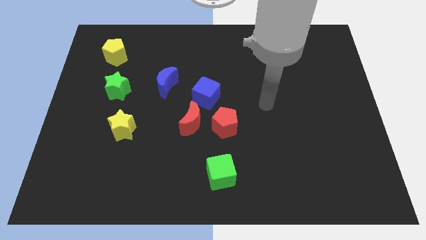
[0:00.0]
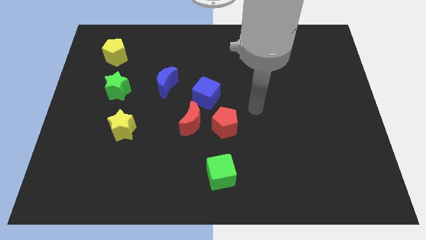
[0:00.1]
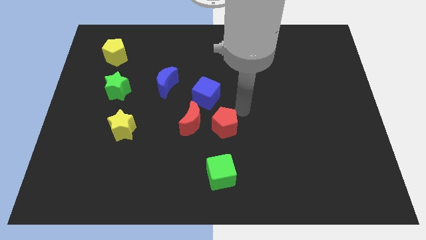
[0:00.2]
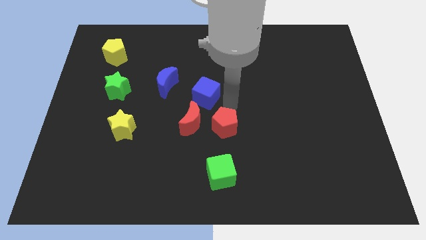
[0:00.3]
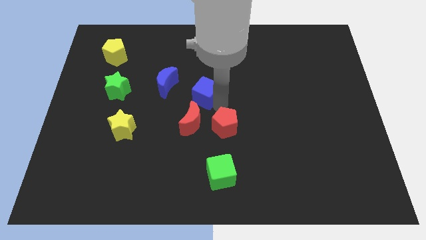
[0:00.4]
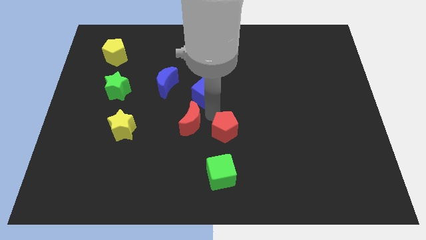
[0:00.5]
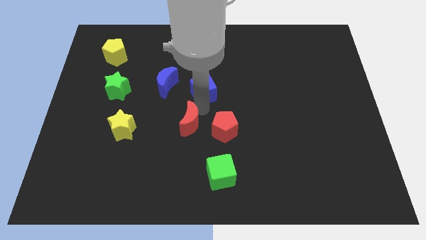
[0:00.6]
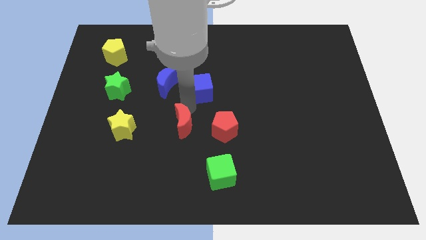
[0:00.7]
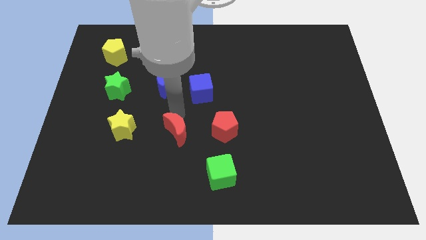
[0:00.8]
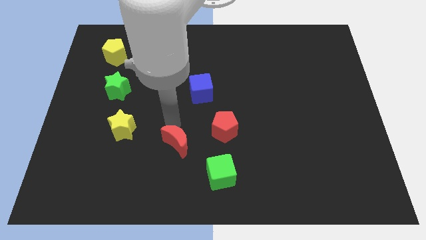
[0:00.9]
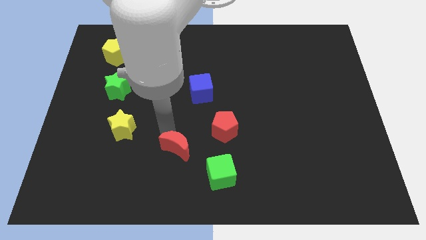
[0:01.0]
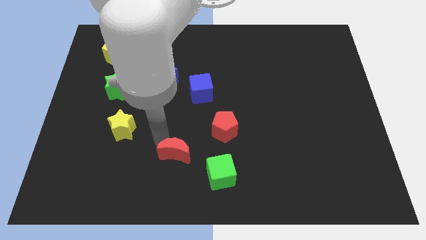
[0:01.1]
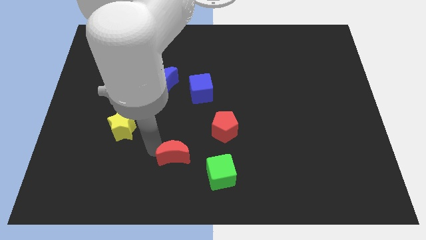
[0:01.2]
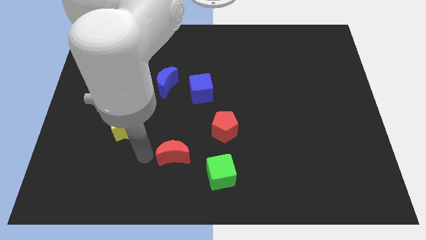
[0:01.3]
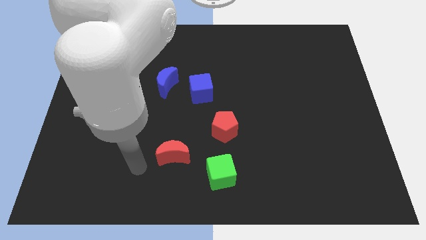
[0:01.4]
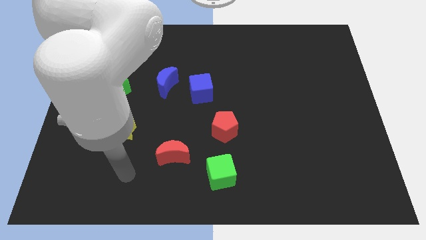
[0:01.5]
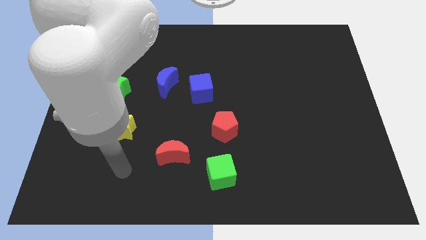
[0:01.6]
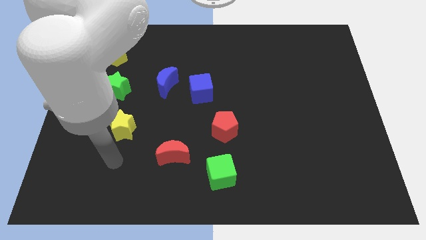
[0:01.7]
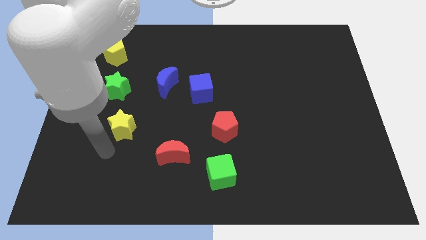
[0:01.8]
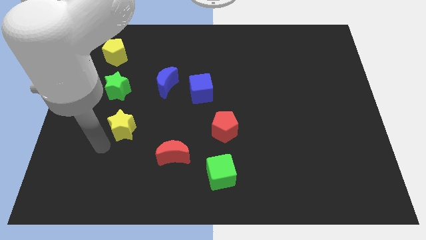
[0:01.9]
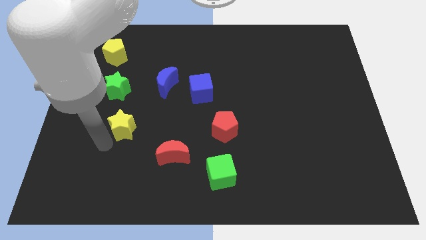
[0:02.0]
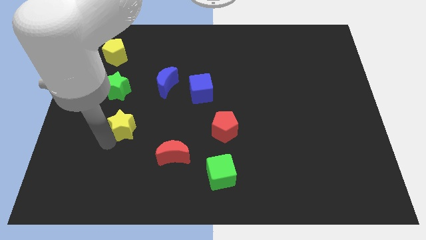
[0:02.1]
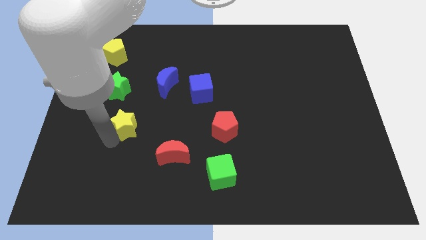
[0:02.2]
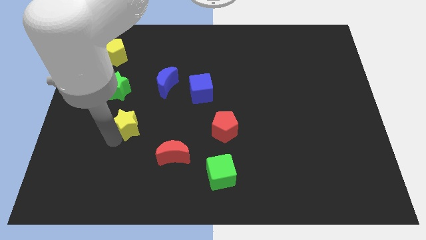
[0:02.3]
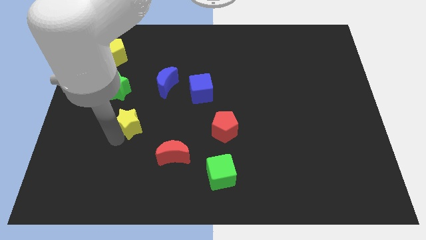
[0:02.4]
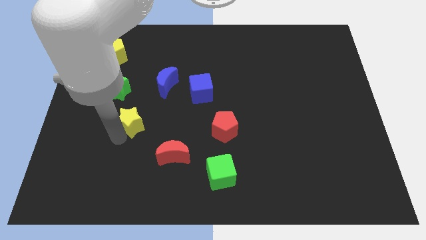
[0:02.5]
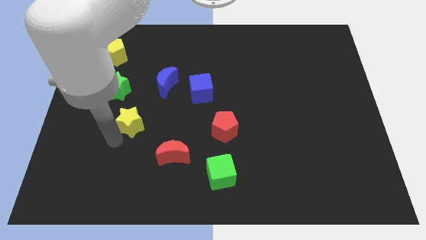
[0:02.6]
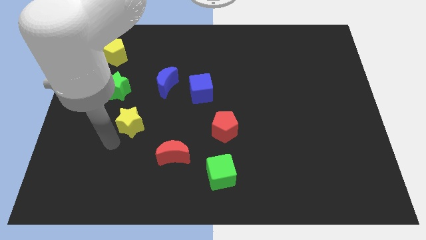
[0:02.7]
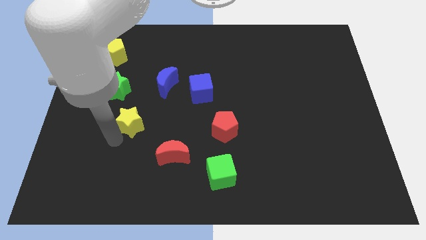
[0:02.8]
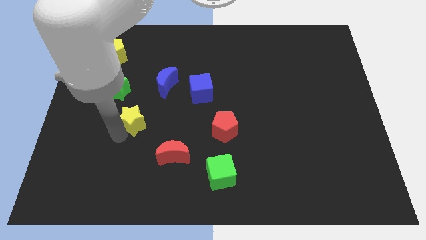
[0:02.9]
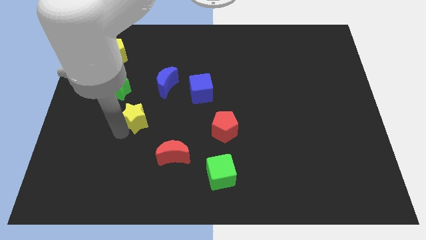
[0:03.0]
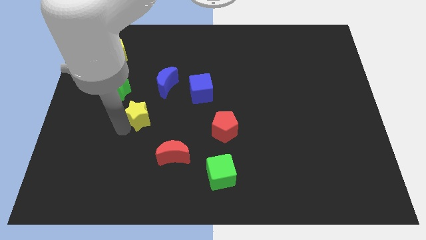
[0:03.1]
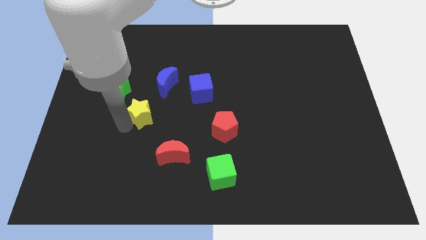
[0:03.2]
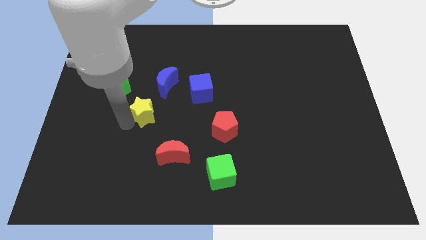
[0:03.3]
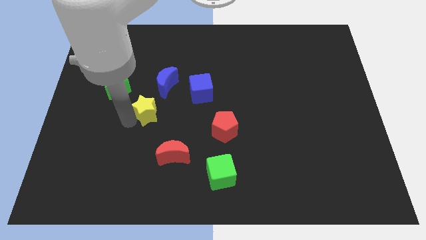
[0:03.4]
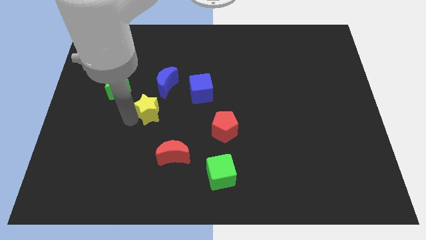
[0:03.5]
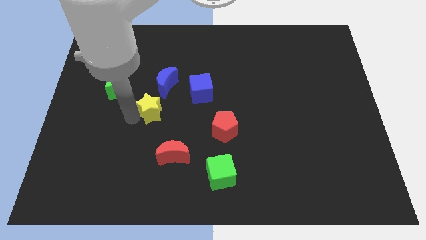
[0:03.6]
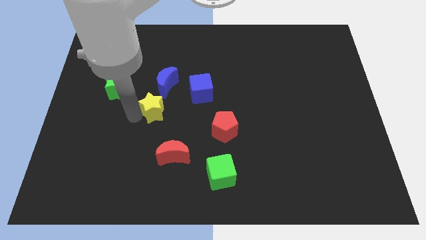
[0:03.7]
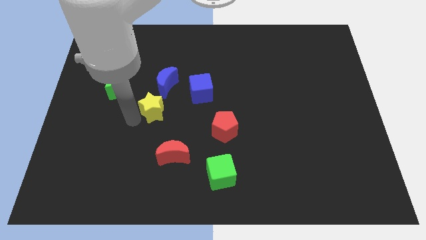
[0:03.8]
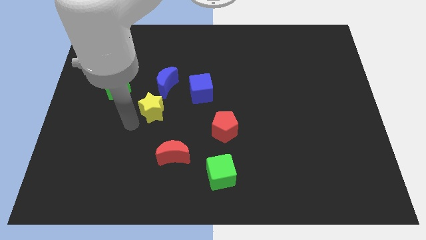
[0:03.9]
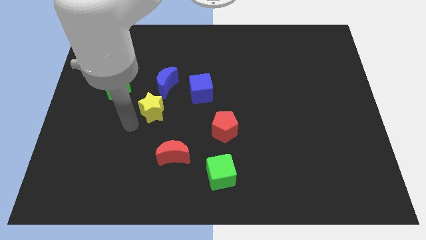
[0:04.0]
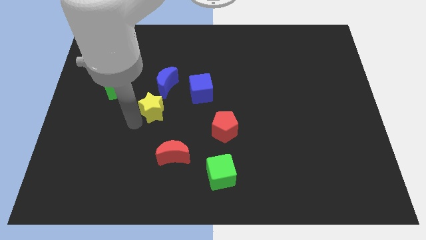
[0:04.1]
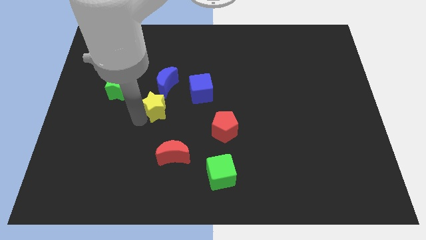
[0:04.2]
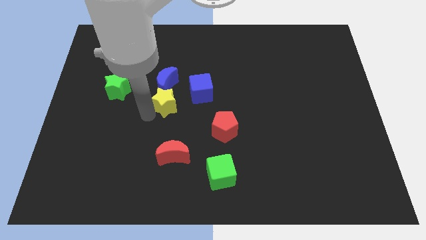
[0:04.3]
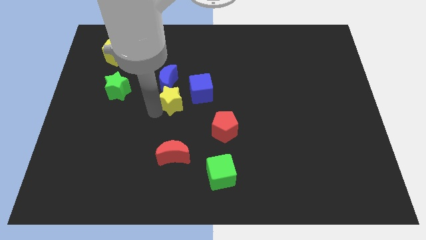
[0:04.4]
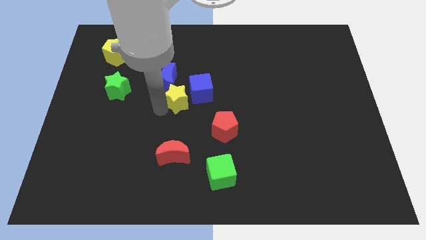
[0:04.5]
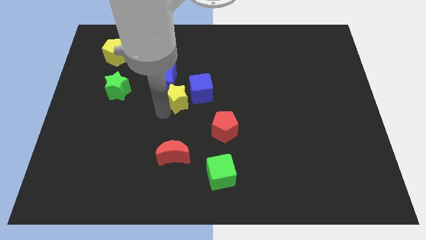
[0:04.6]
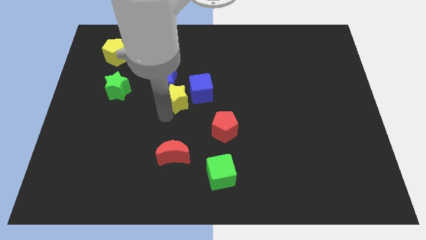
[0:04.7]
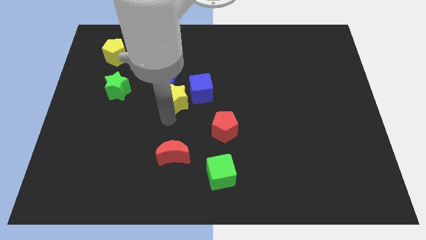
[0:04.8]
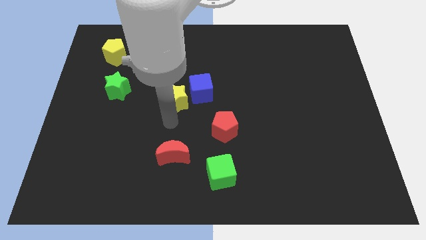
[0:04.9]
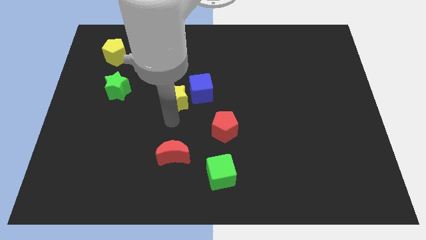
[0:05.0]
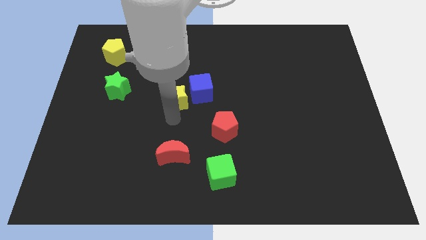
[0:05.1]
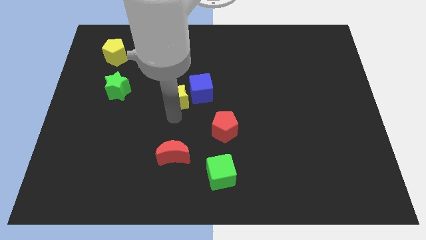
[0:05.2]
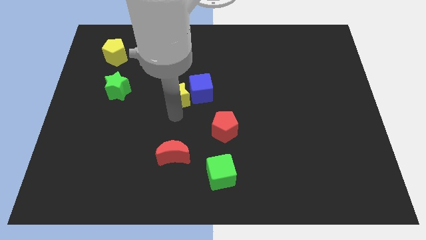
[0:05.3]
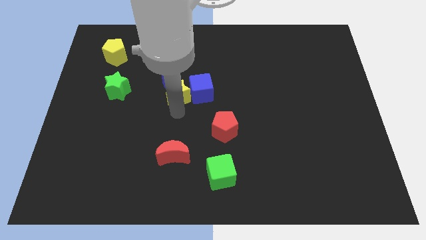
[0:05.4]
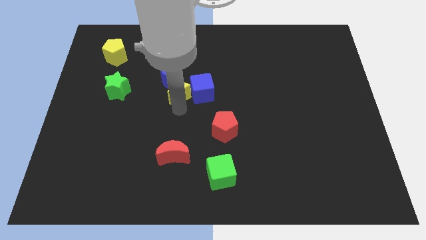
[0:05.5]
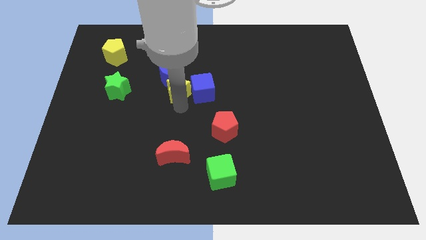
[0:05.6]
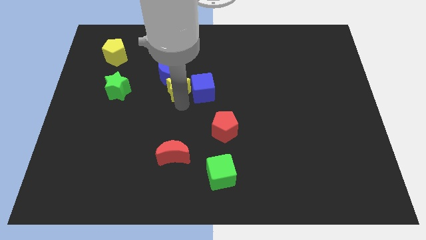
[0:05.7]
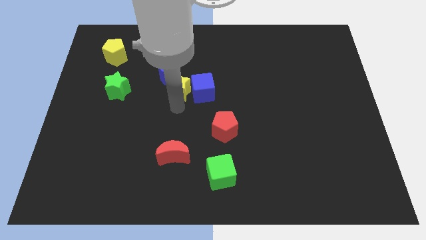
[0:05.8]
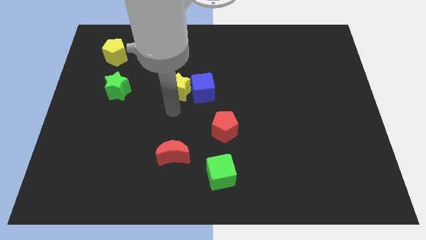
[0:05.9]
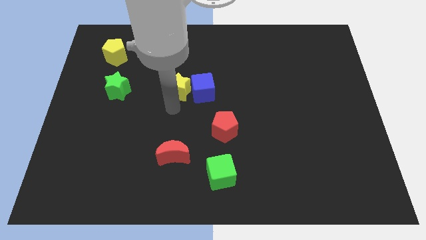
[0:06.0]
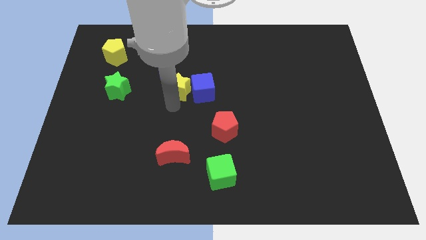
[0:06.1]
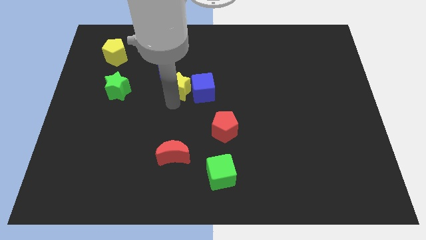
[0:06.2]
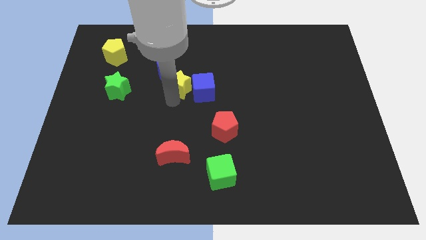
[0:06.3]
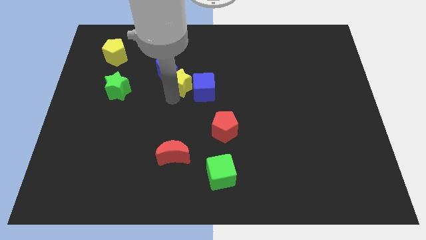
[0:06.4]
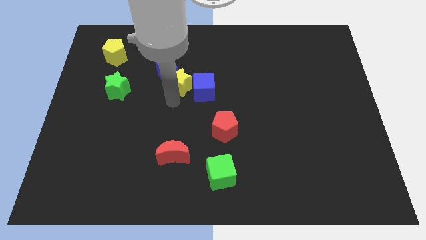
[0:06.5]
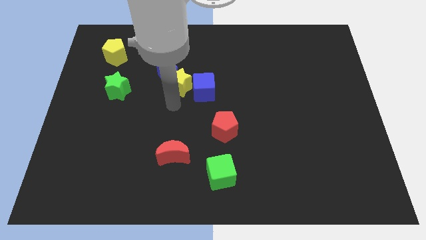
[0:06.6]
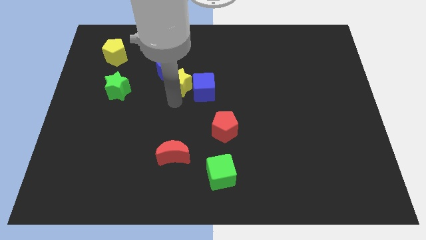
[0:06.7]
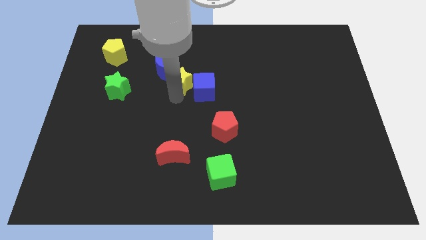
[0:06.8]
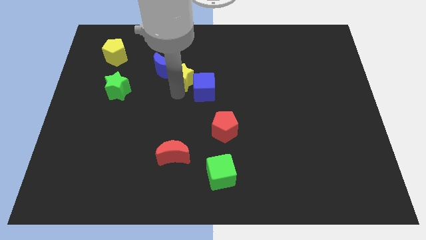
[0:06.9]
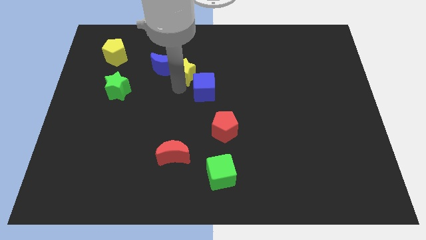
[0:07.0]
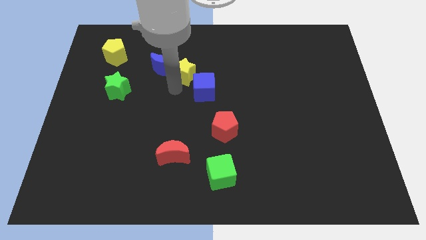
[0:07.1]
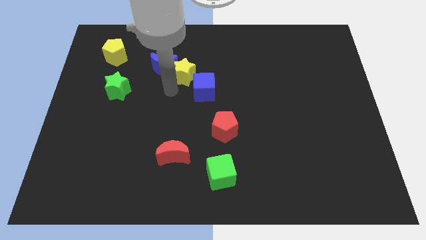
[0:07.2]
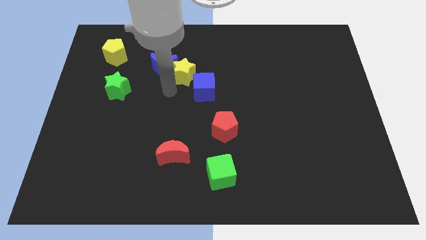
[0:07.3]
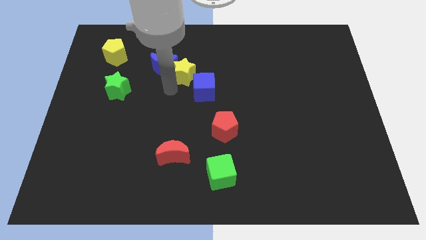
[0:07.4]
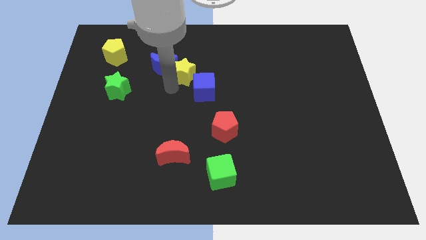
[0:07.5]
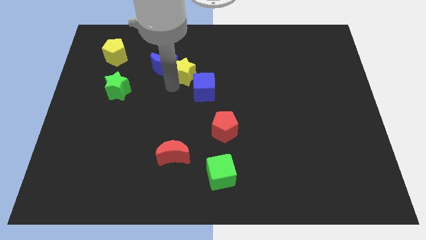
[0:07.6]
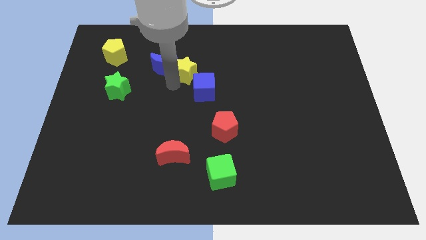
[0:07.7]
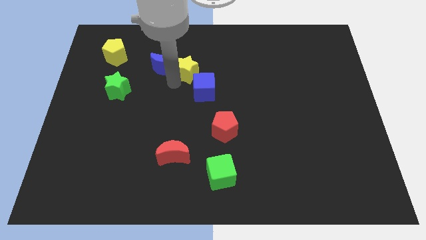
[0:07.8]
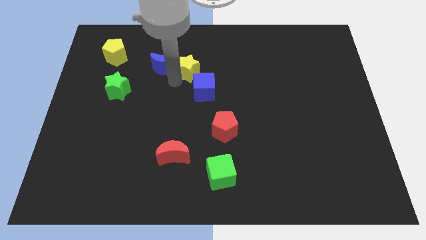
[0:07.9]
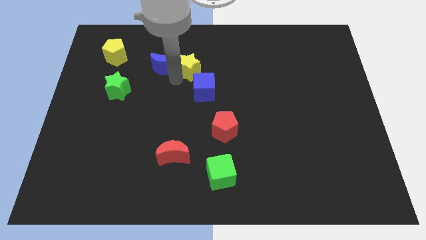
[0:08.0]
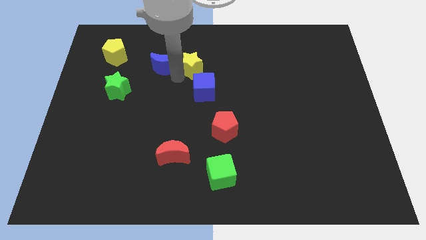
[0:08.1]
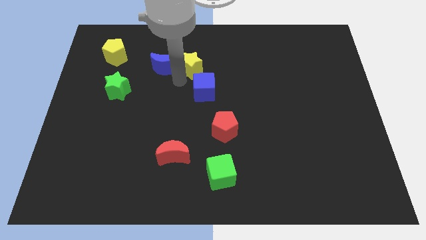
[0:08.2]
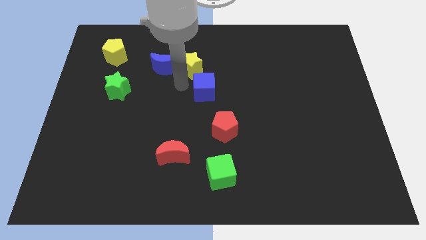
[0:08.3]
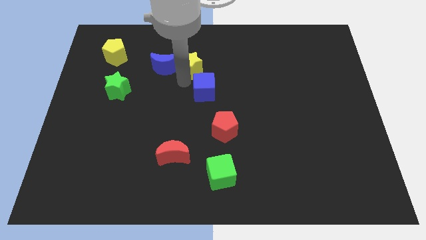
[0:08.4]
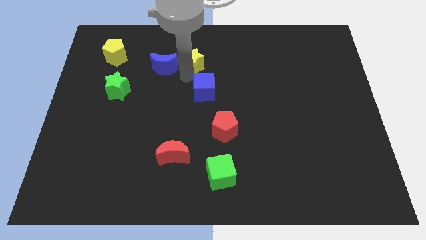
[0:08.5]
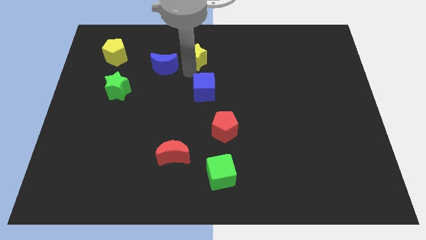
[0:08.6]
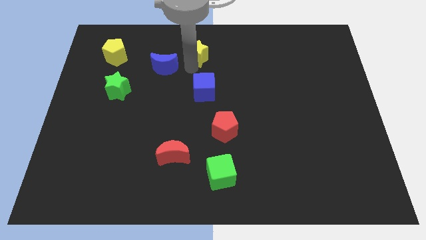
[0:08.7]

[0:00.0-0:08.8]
slide the yellow star to the top
